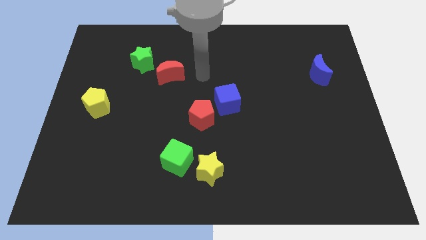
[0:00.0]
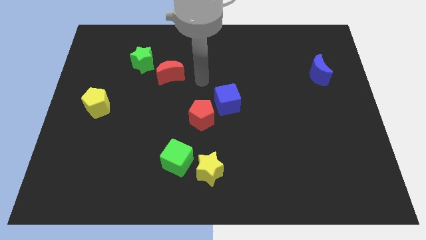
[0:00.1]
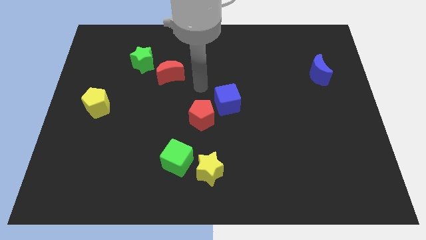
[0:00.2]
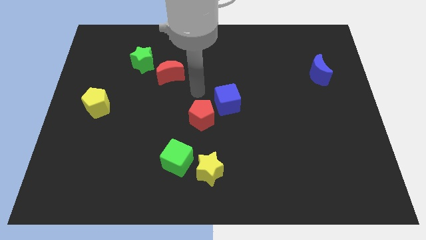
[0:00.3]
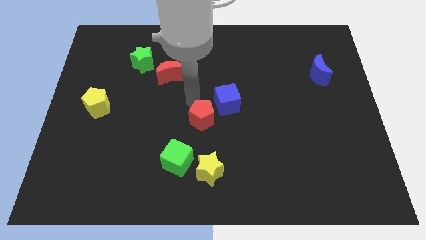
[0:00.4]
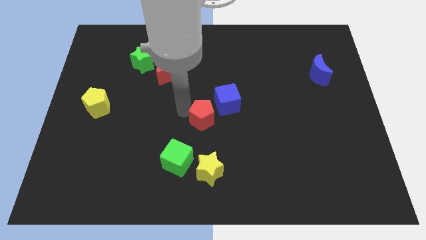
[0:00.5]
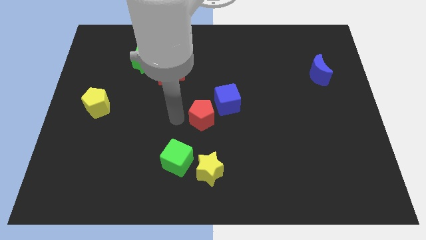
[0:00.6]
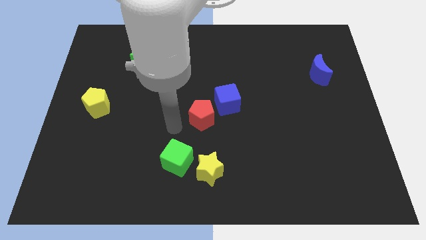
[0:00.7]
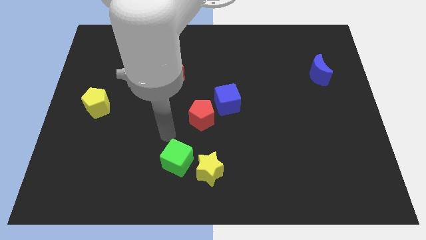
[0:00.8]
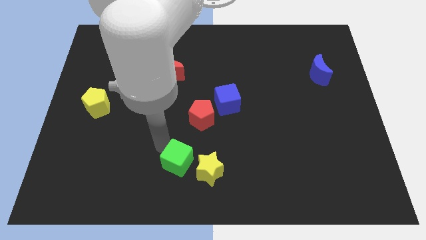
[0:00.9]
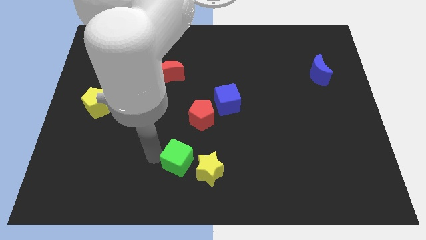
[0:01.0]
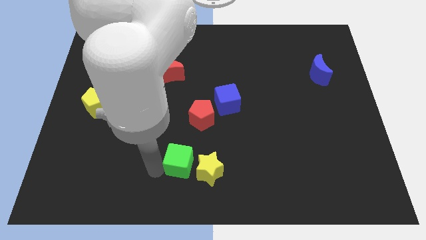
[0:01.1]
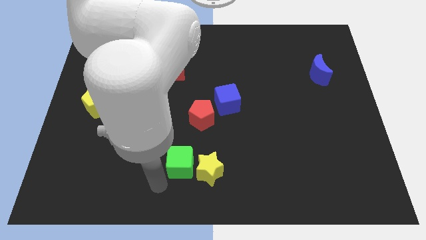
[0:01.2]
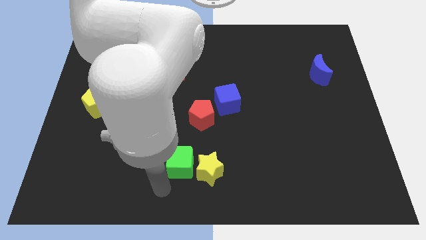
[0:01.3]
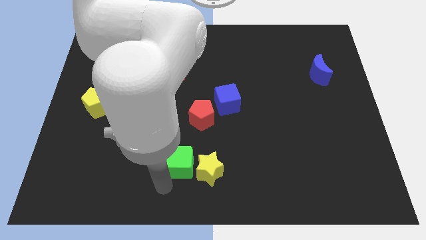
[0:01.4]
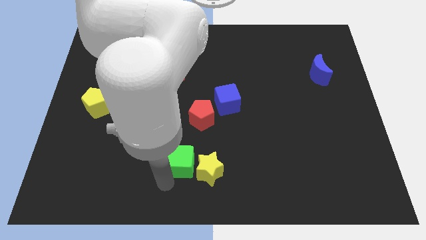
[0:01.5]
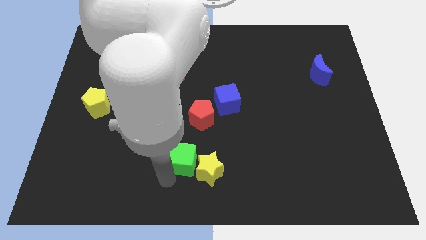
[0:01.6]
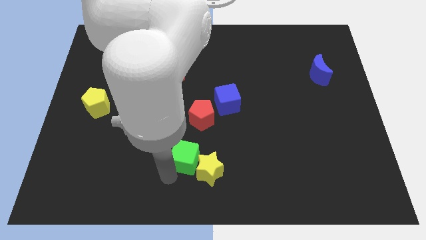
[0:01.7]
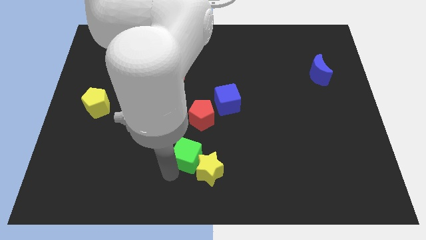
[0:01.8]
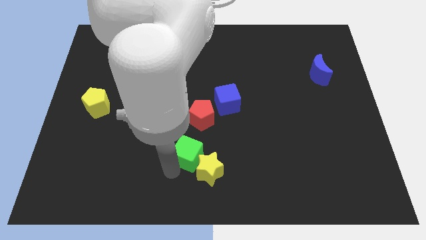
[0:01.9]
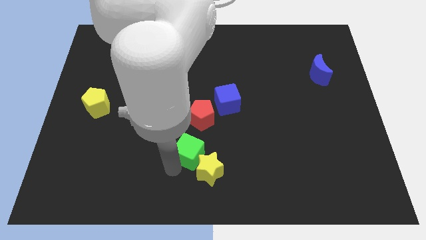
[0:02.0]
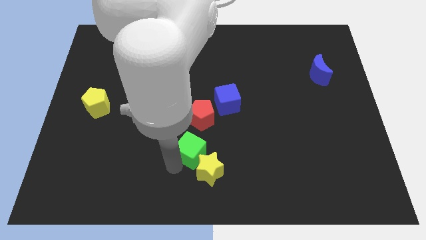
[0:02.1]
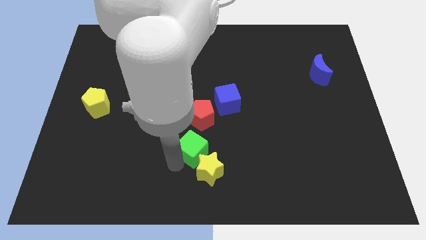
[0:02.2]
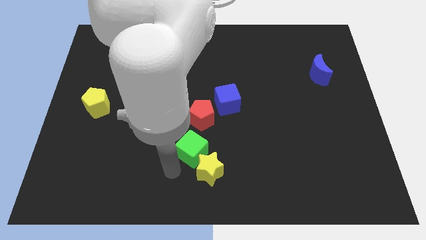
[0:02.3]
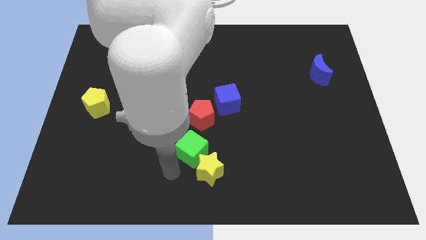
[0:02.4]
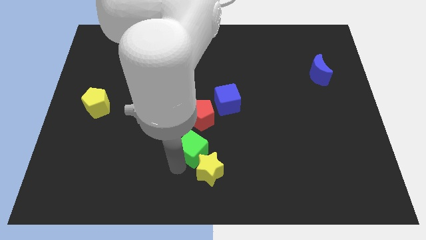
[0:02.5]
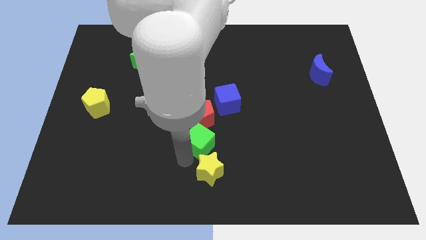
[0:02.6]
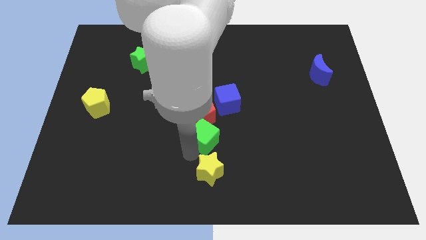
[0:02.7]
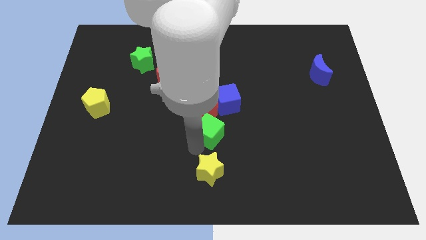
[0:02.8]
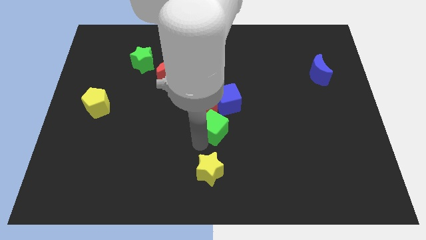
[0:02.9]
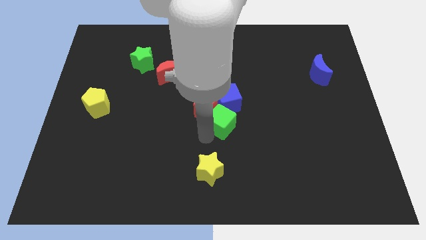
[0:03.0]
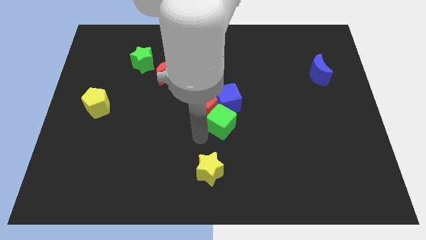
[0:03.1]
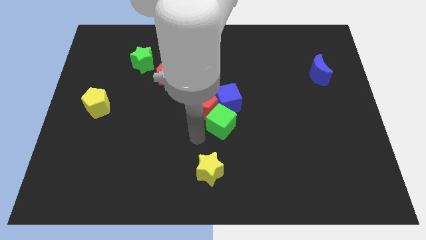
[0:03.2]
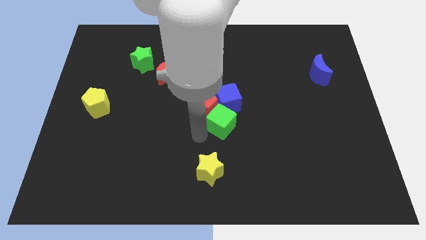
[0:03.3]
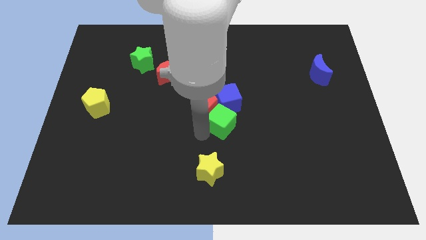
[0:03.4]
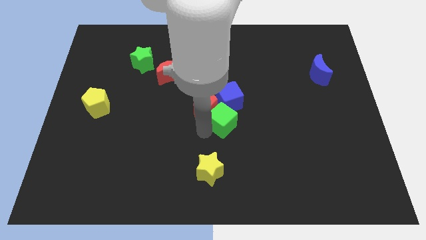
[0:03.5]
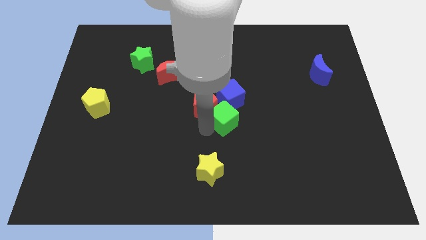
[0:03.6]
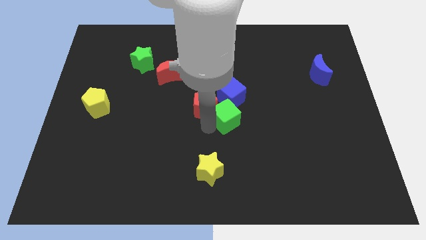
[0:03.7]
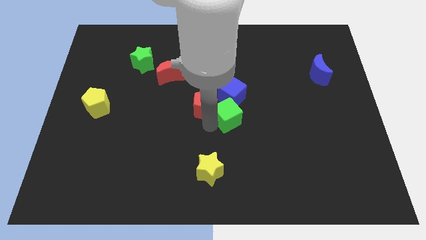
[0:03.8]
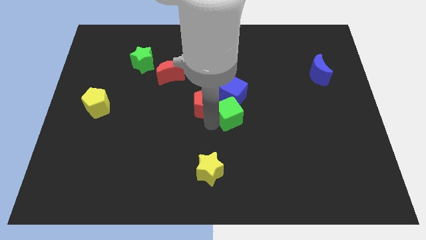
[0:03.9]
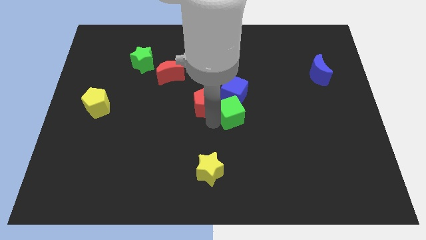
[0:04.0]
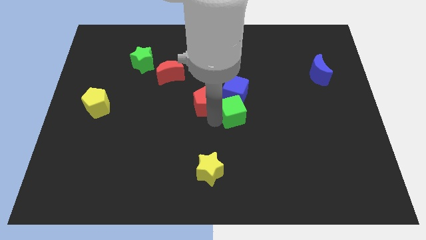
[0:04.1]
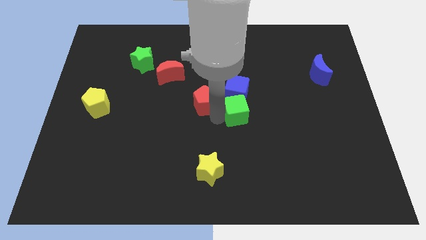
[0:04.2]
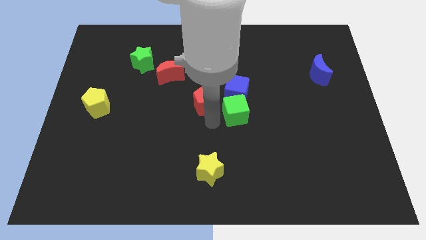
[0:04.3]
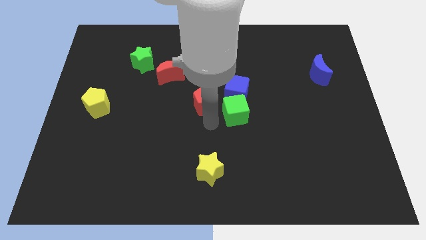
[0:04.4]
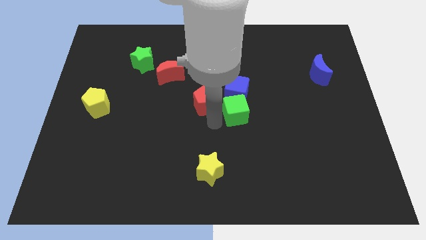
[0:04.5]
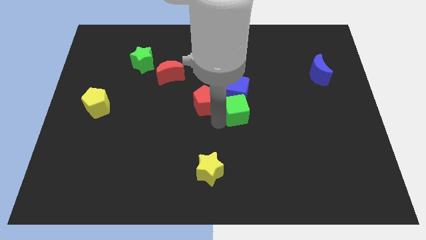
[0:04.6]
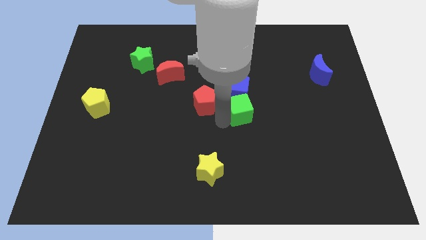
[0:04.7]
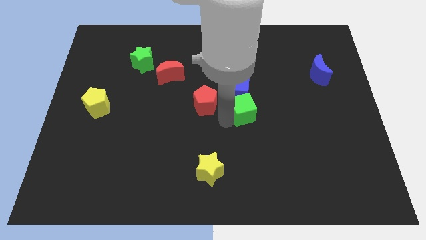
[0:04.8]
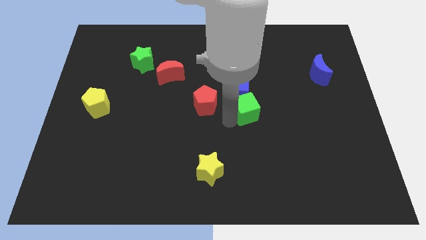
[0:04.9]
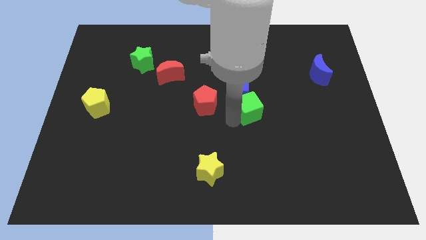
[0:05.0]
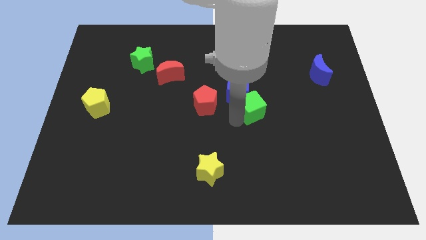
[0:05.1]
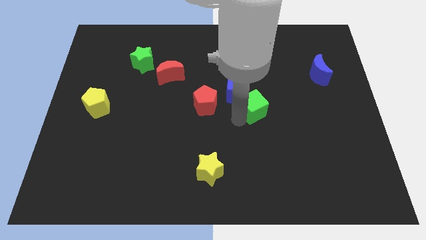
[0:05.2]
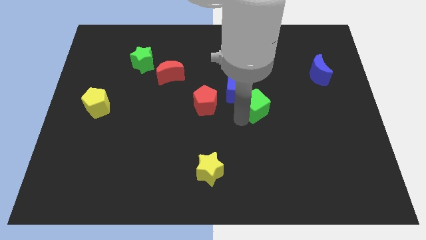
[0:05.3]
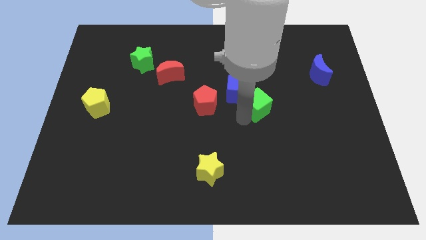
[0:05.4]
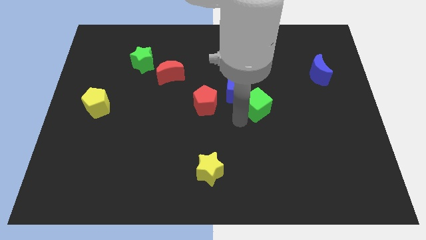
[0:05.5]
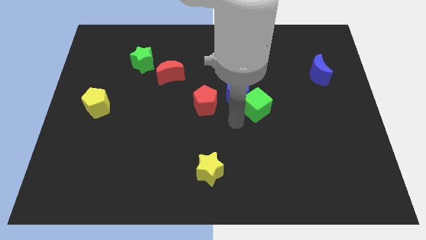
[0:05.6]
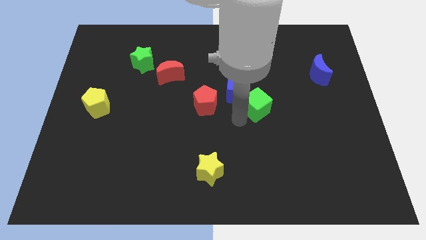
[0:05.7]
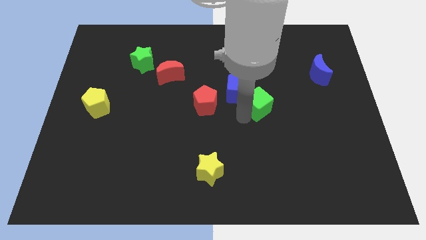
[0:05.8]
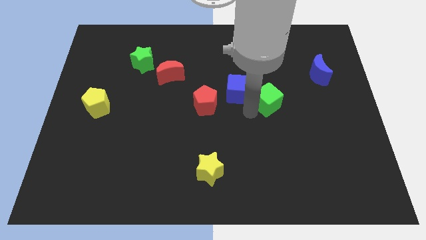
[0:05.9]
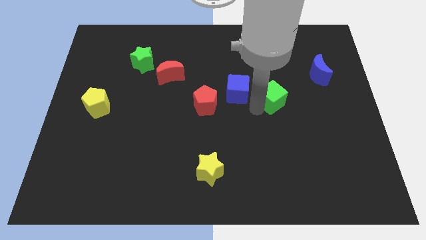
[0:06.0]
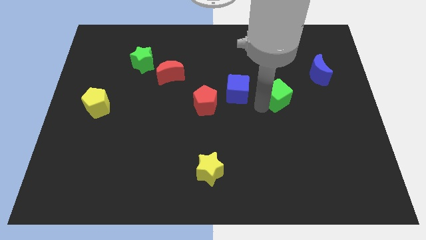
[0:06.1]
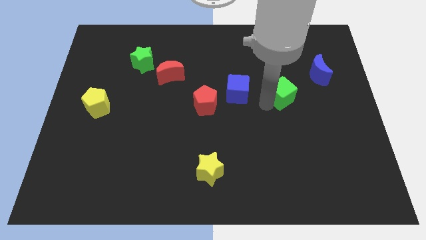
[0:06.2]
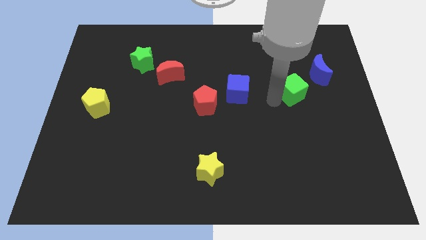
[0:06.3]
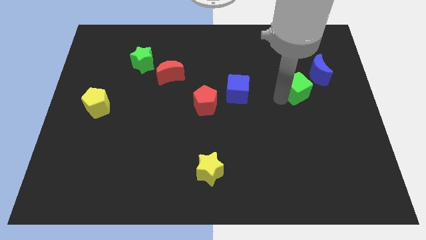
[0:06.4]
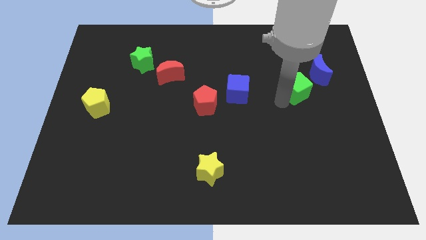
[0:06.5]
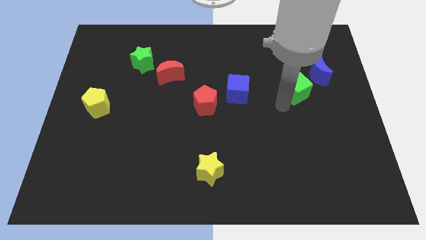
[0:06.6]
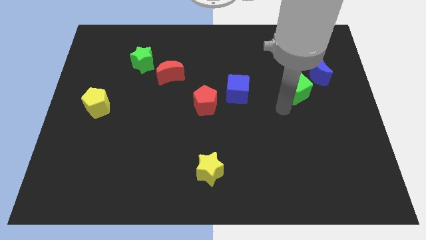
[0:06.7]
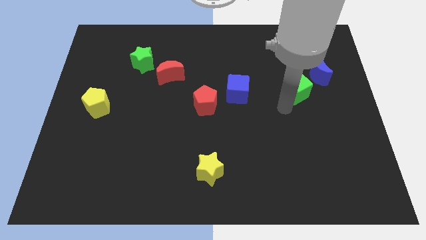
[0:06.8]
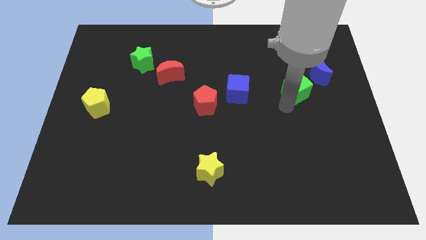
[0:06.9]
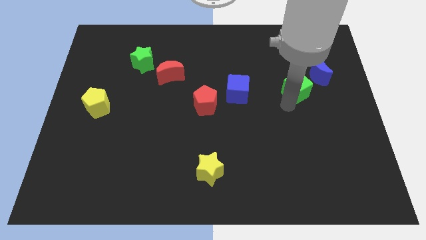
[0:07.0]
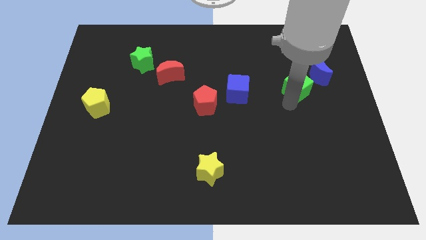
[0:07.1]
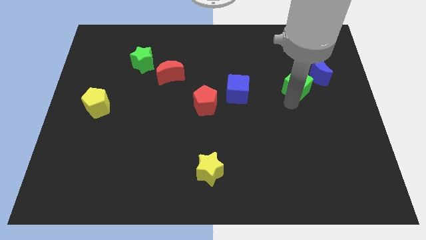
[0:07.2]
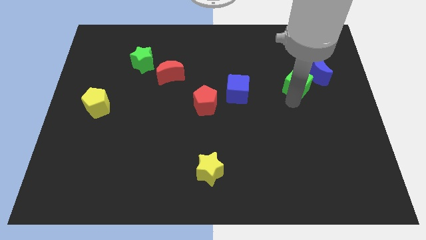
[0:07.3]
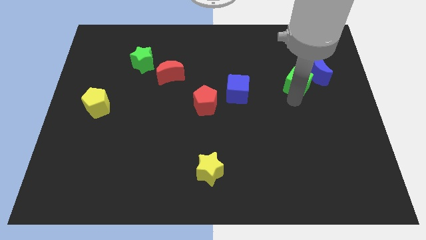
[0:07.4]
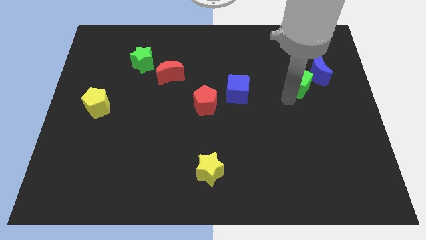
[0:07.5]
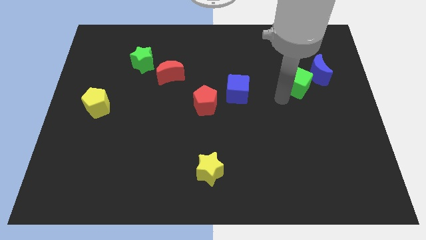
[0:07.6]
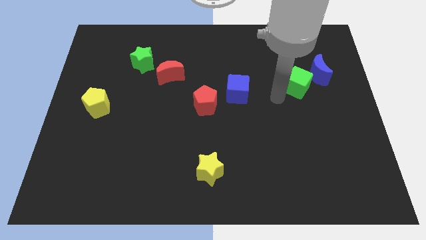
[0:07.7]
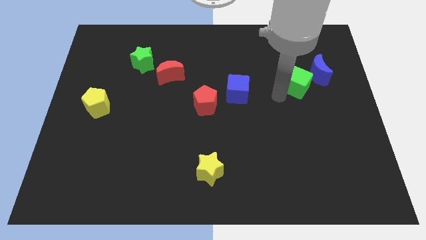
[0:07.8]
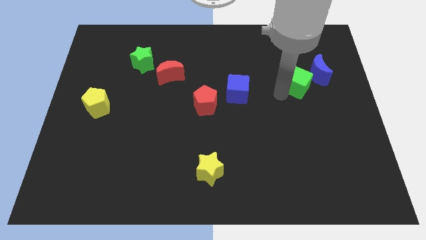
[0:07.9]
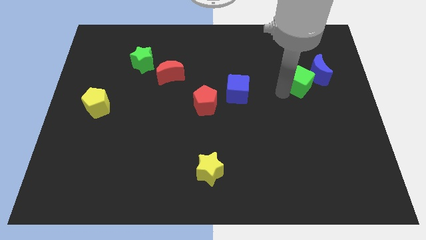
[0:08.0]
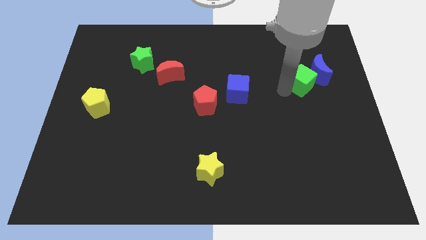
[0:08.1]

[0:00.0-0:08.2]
move the green cube to the blue moon
